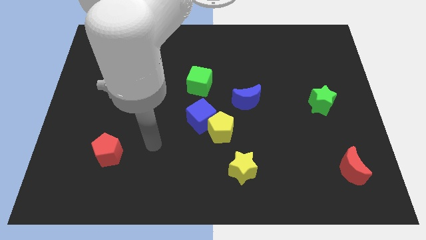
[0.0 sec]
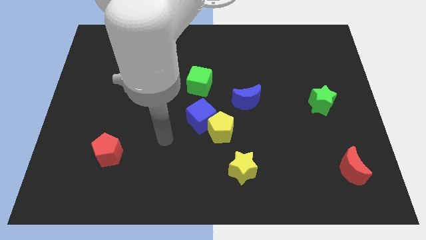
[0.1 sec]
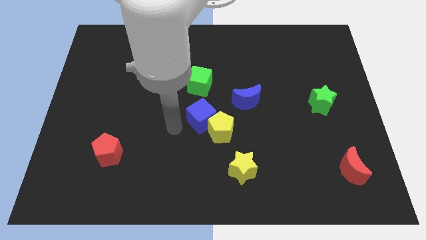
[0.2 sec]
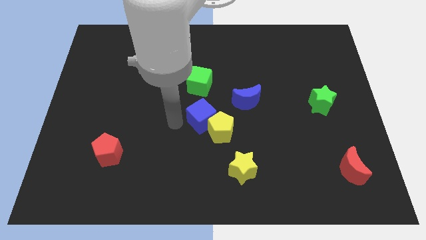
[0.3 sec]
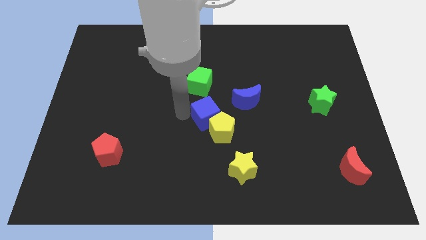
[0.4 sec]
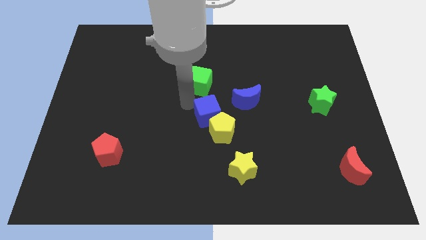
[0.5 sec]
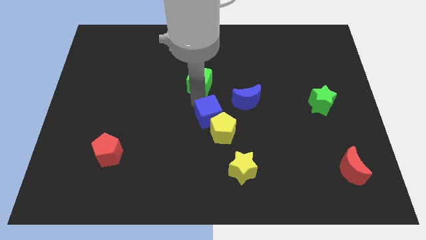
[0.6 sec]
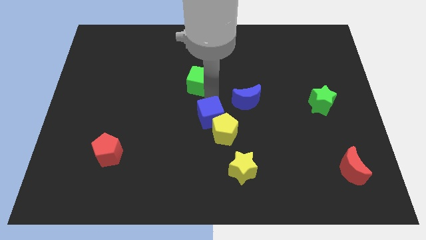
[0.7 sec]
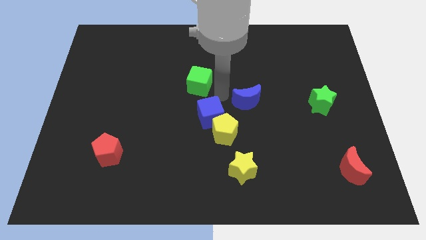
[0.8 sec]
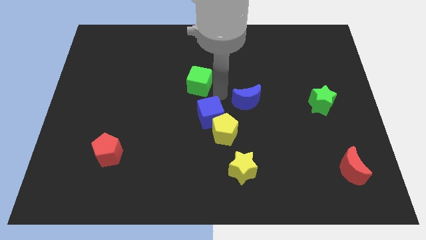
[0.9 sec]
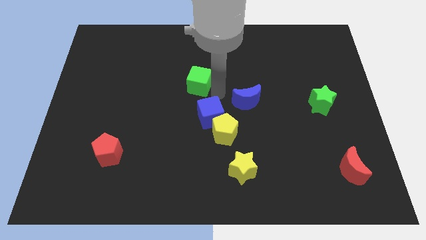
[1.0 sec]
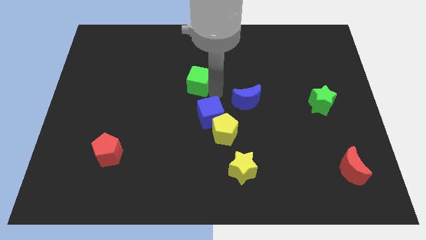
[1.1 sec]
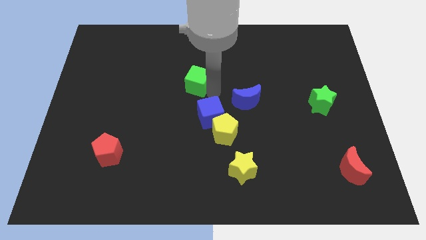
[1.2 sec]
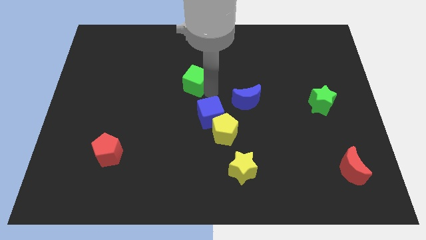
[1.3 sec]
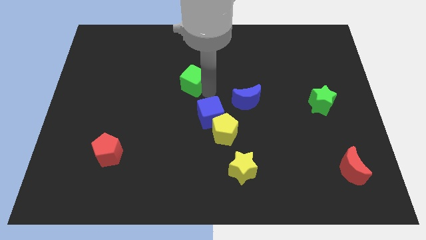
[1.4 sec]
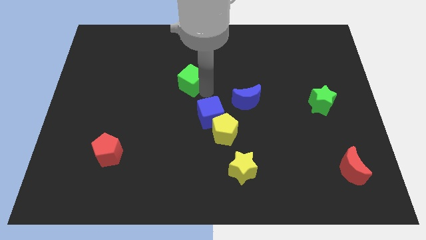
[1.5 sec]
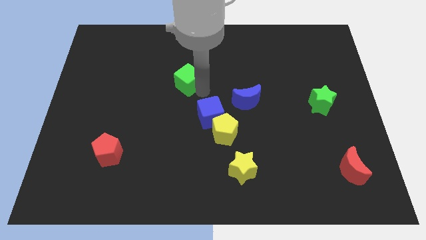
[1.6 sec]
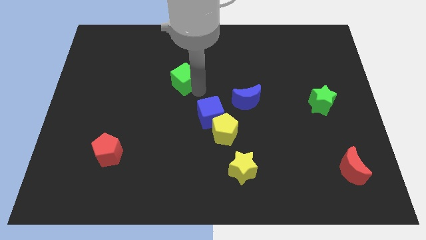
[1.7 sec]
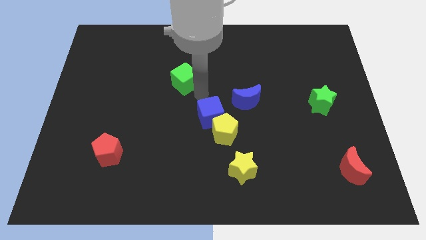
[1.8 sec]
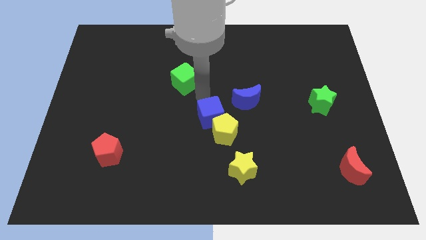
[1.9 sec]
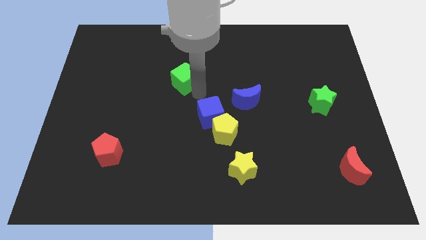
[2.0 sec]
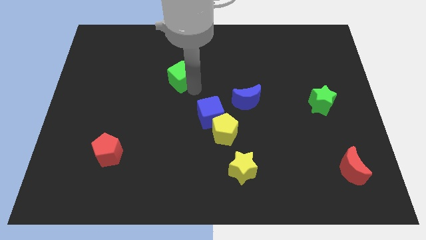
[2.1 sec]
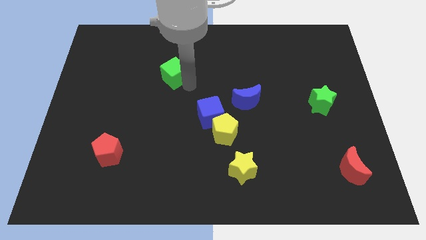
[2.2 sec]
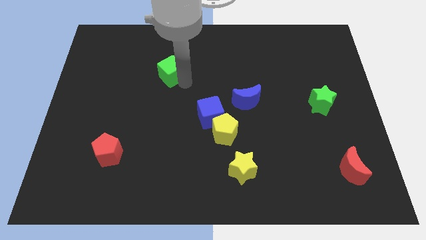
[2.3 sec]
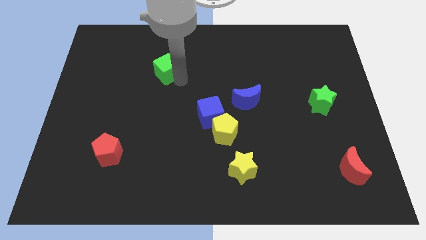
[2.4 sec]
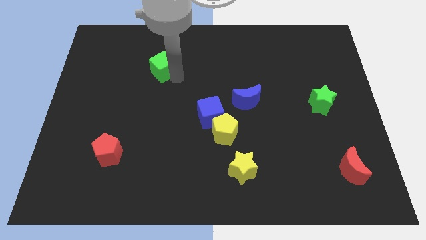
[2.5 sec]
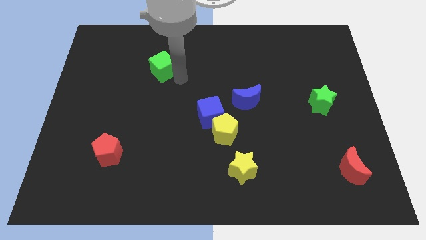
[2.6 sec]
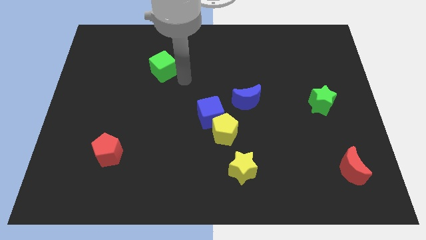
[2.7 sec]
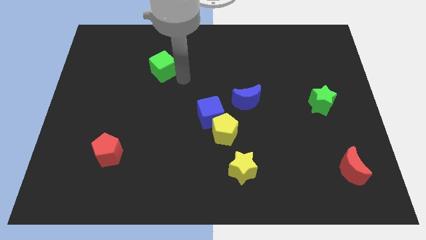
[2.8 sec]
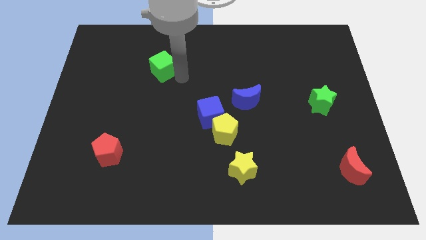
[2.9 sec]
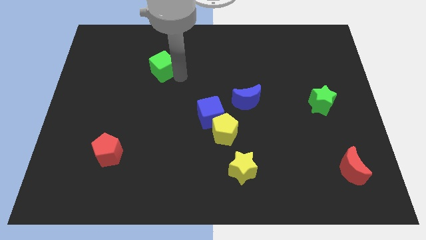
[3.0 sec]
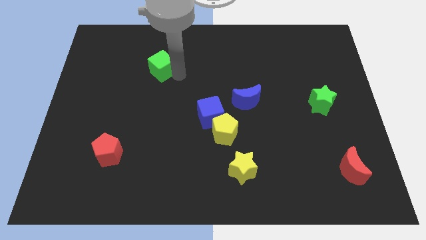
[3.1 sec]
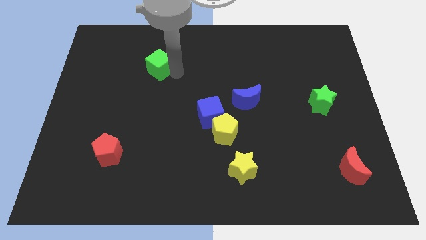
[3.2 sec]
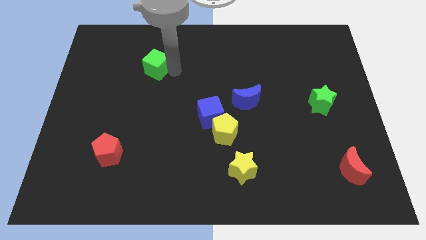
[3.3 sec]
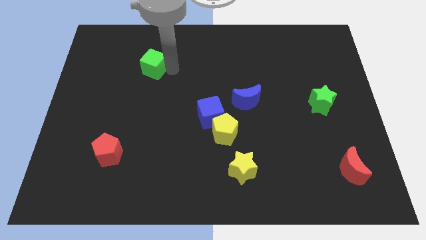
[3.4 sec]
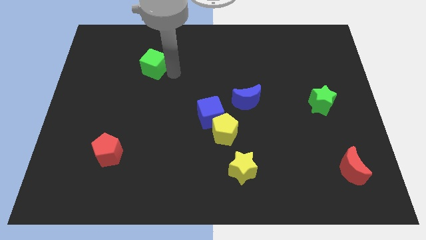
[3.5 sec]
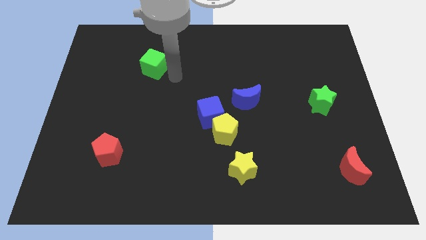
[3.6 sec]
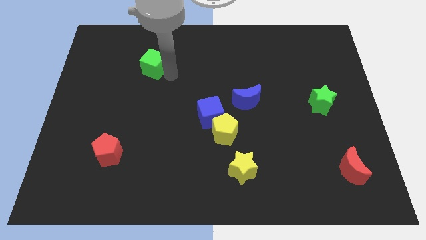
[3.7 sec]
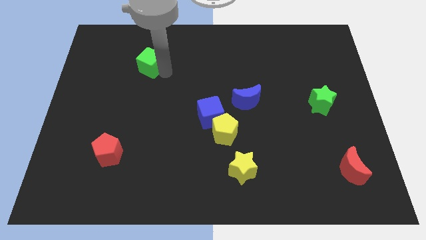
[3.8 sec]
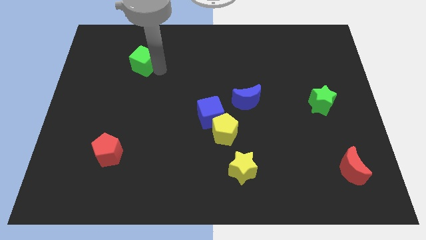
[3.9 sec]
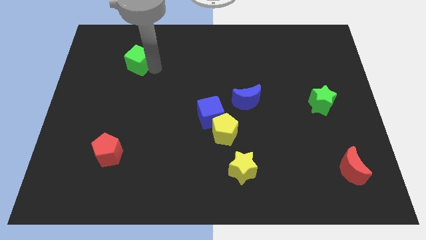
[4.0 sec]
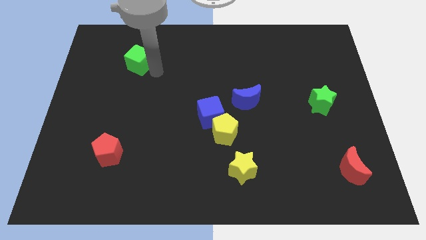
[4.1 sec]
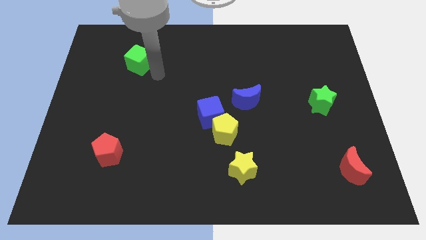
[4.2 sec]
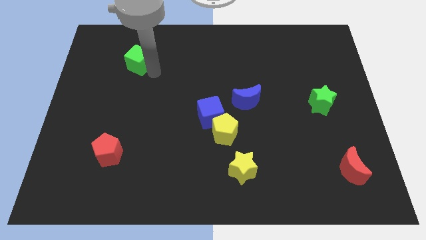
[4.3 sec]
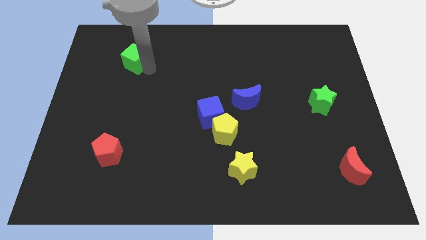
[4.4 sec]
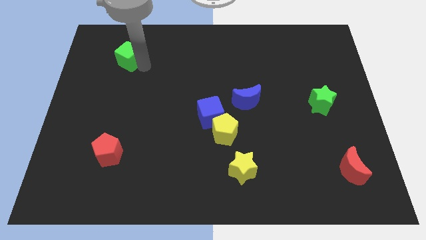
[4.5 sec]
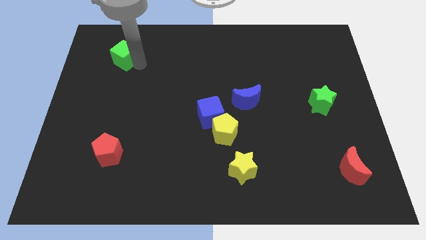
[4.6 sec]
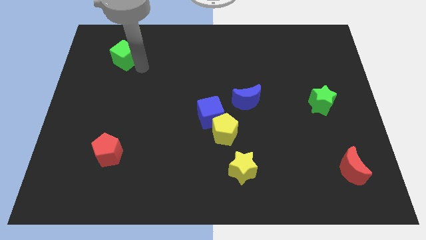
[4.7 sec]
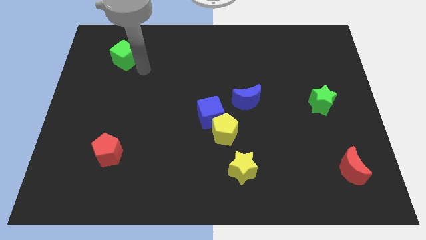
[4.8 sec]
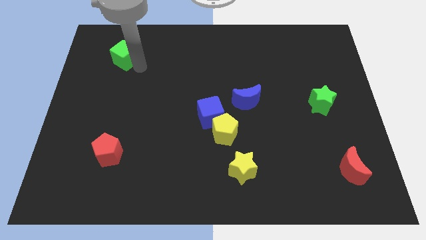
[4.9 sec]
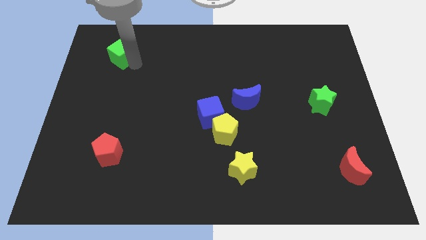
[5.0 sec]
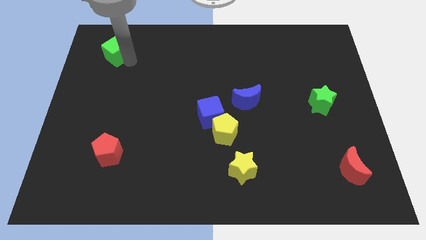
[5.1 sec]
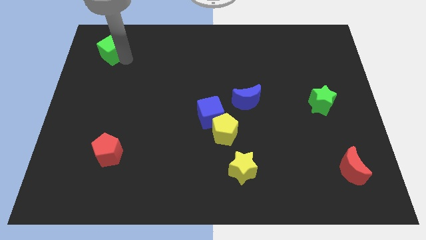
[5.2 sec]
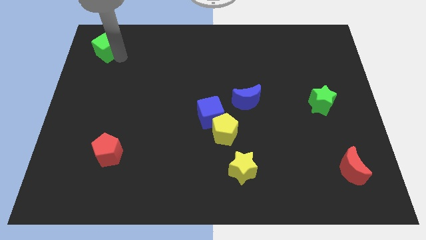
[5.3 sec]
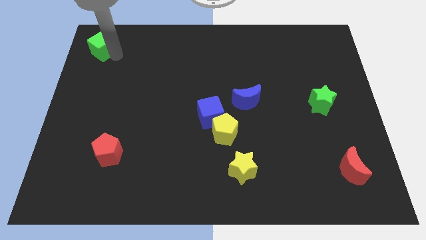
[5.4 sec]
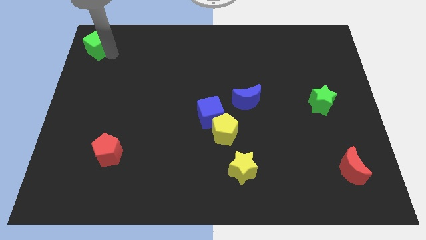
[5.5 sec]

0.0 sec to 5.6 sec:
put the green cube to the top left corner
